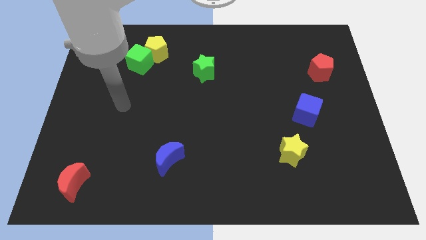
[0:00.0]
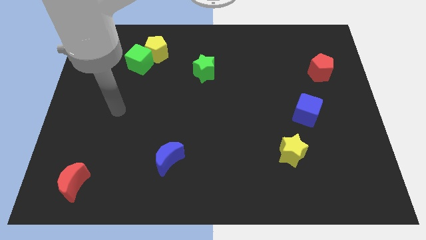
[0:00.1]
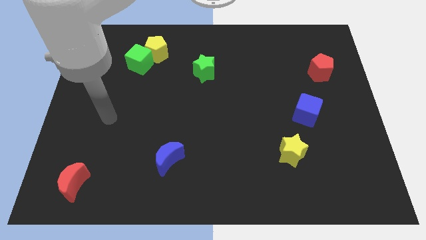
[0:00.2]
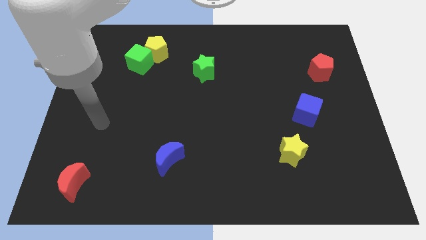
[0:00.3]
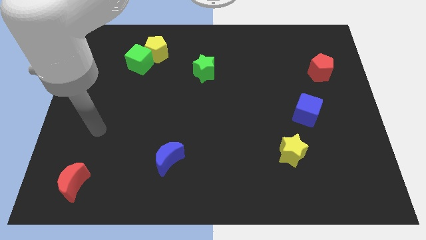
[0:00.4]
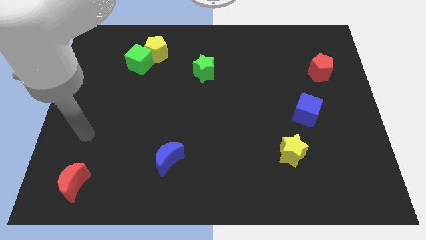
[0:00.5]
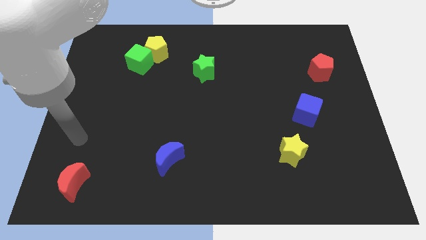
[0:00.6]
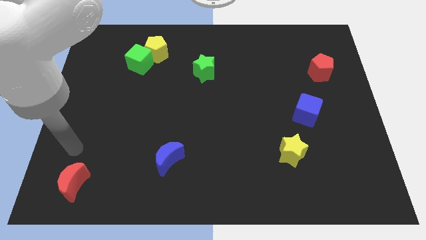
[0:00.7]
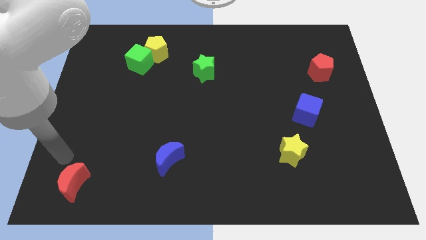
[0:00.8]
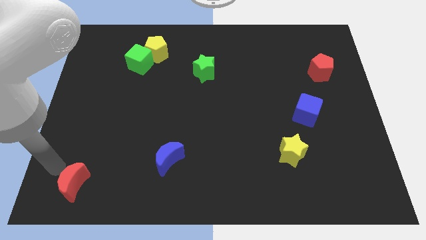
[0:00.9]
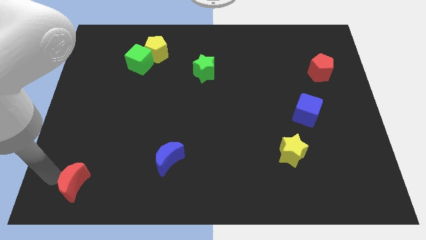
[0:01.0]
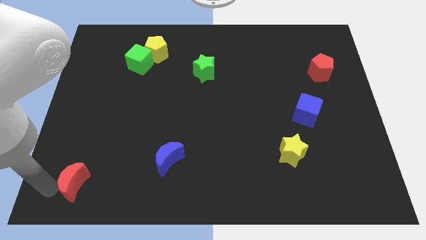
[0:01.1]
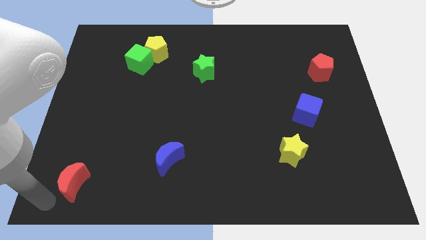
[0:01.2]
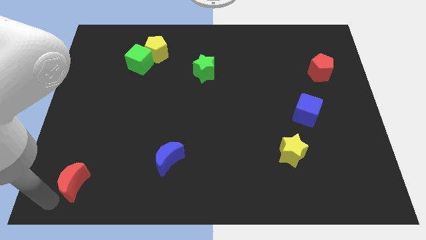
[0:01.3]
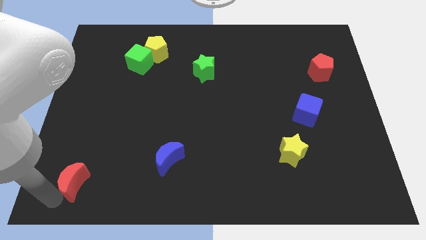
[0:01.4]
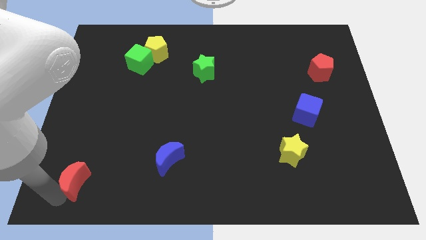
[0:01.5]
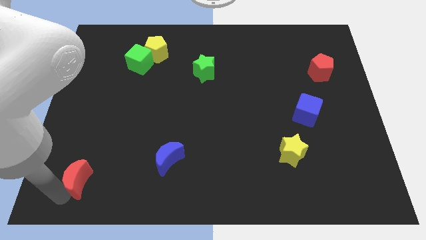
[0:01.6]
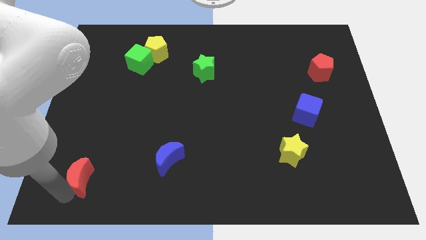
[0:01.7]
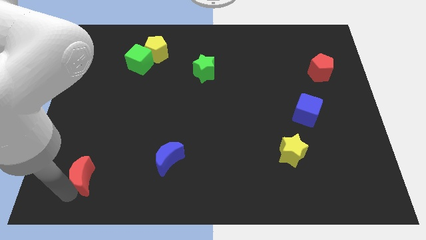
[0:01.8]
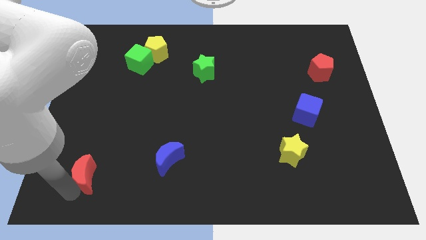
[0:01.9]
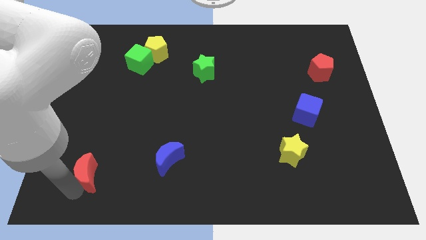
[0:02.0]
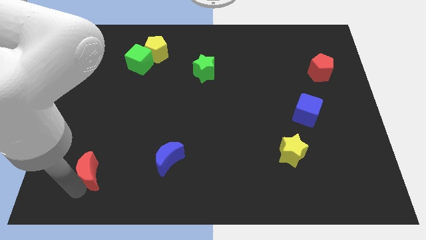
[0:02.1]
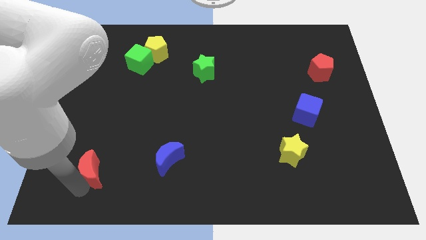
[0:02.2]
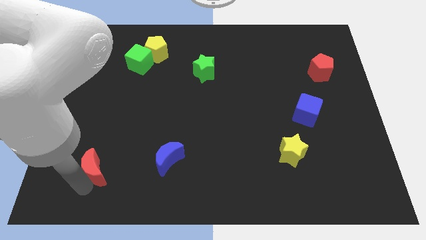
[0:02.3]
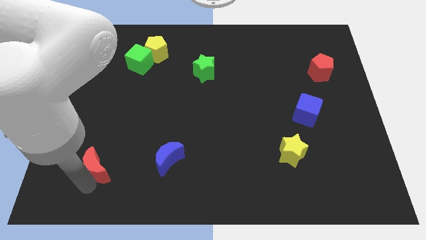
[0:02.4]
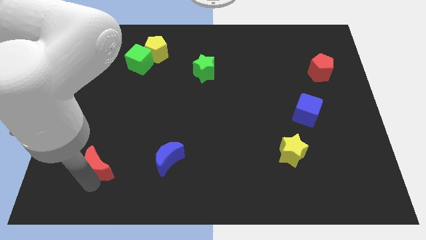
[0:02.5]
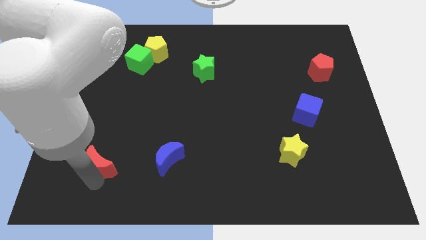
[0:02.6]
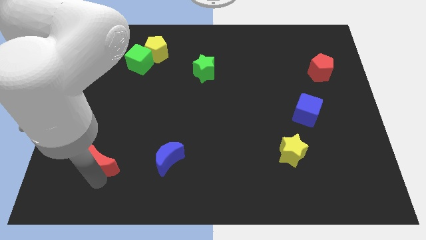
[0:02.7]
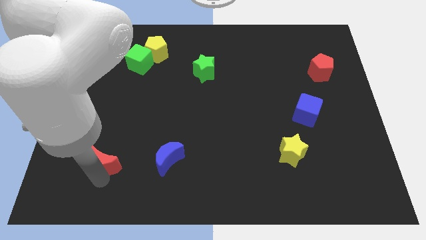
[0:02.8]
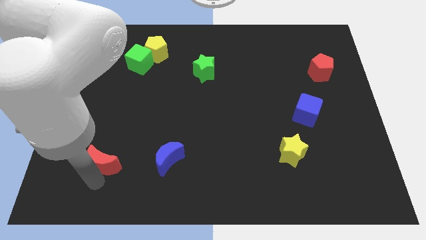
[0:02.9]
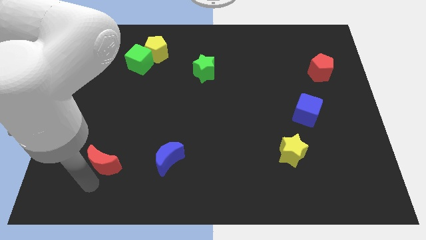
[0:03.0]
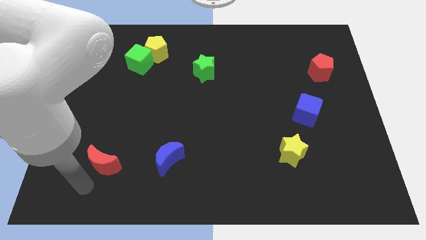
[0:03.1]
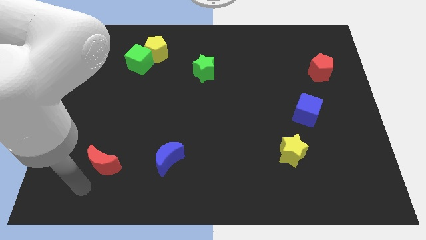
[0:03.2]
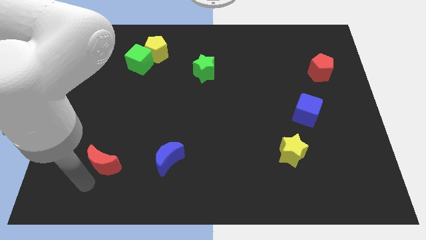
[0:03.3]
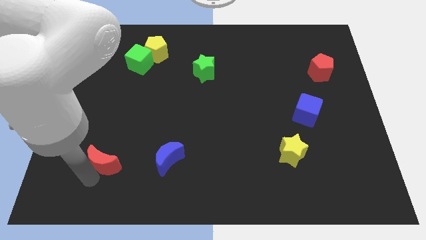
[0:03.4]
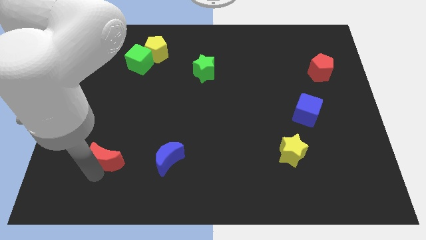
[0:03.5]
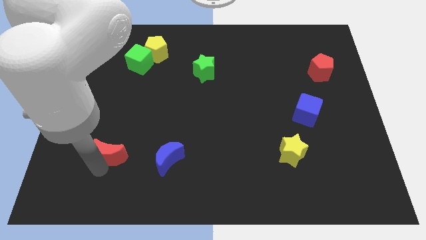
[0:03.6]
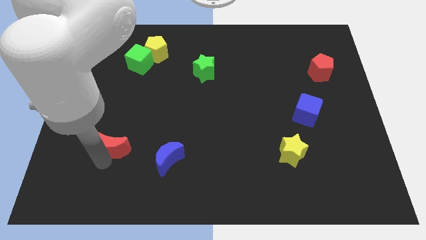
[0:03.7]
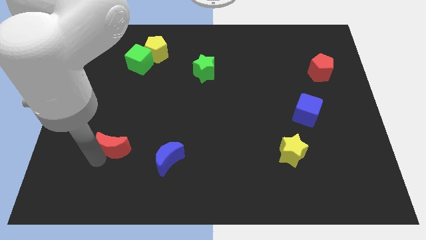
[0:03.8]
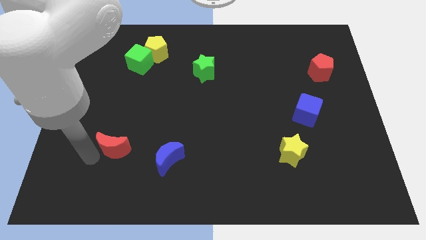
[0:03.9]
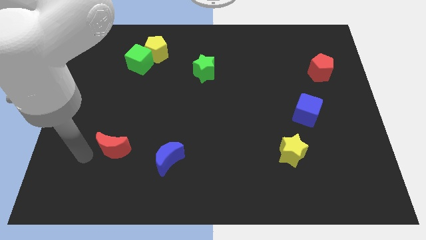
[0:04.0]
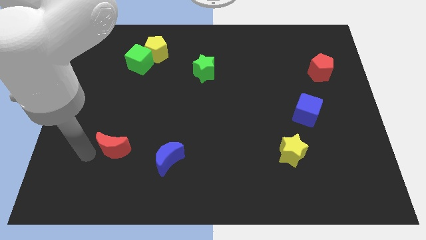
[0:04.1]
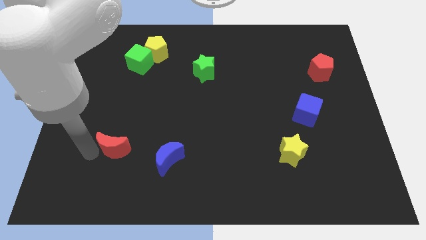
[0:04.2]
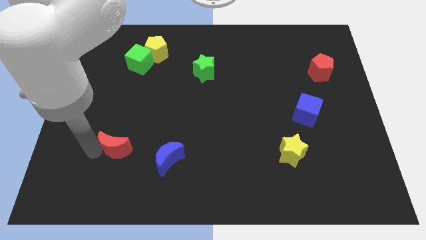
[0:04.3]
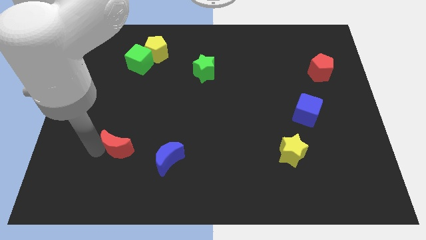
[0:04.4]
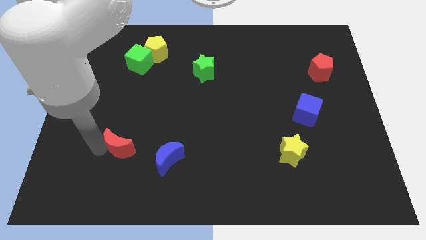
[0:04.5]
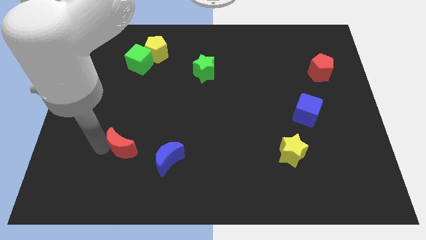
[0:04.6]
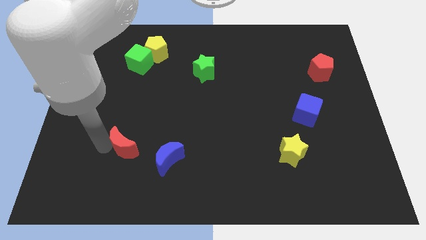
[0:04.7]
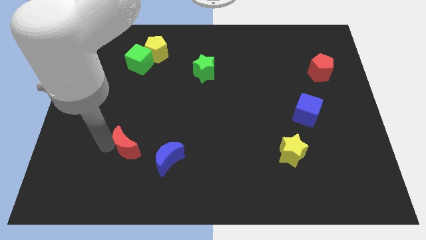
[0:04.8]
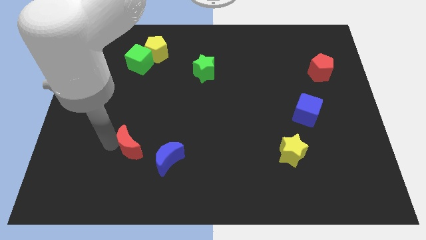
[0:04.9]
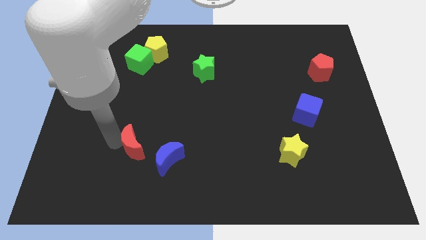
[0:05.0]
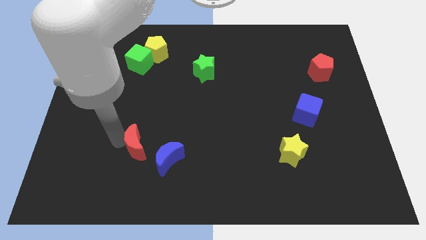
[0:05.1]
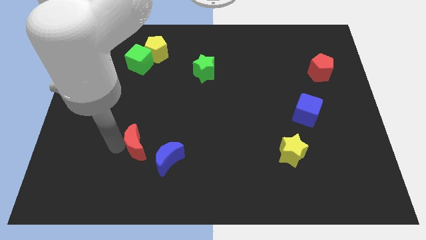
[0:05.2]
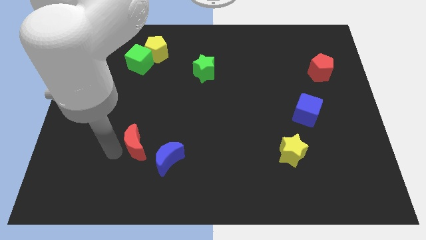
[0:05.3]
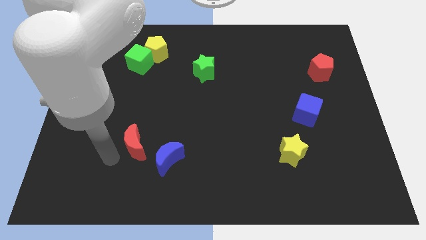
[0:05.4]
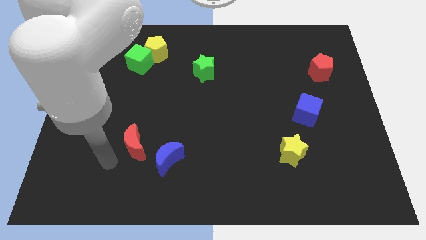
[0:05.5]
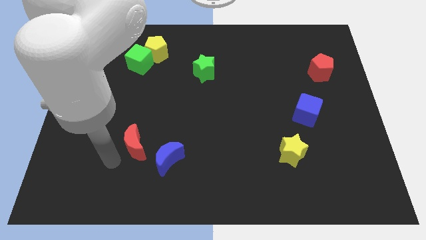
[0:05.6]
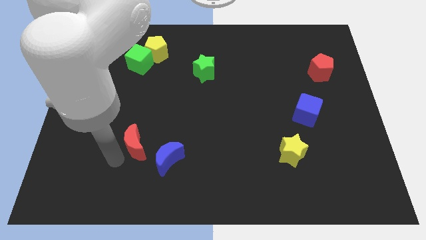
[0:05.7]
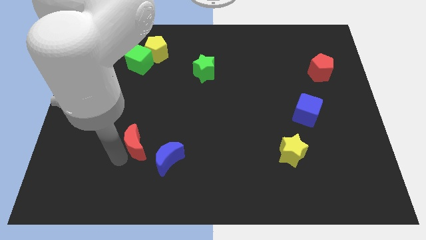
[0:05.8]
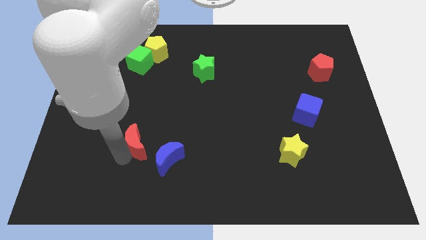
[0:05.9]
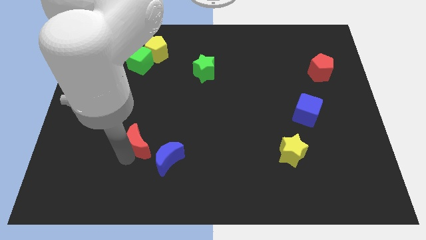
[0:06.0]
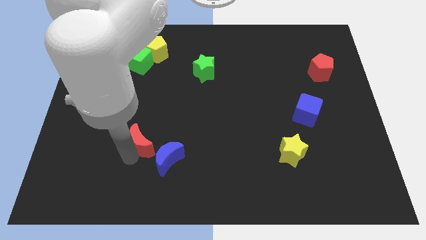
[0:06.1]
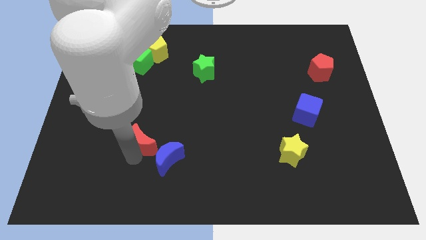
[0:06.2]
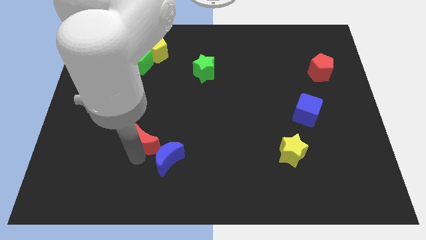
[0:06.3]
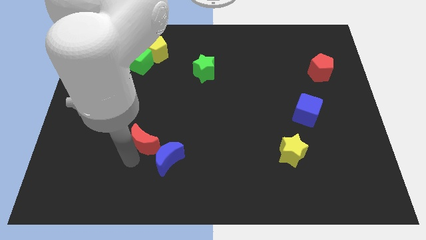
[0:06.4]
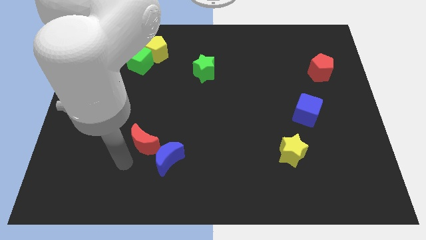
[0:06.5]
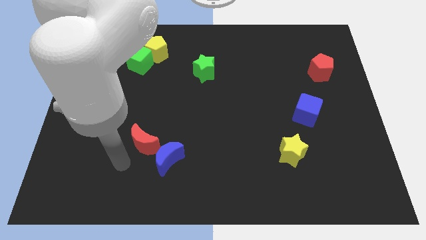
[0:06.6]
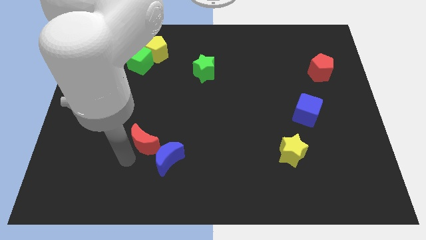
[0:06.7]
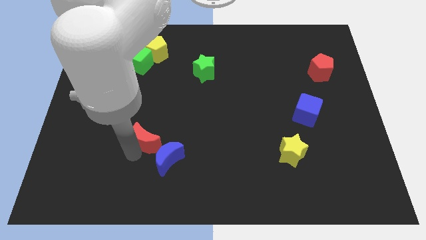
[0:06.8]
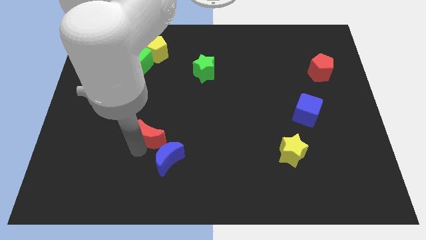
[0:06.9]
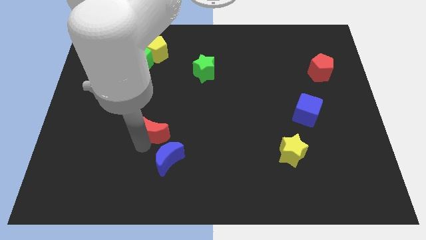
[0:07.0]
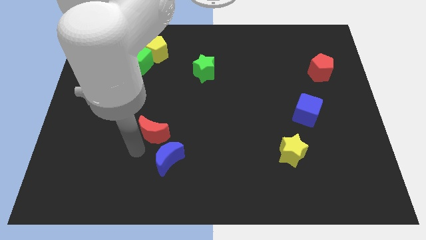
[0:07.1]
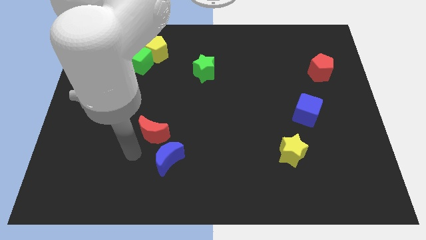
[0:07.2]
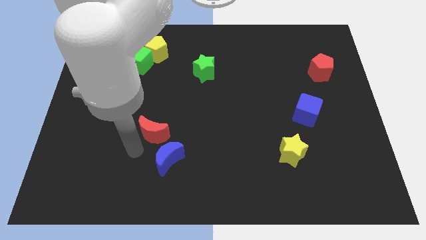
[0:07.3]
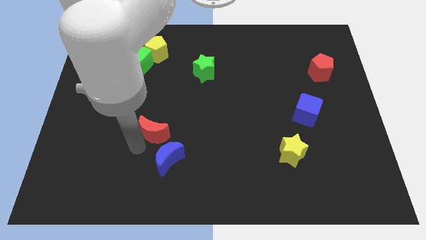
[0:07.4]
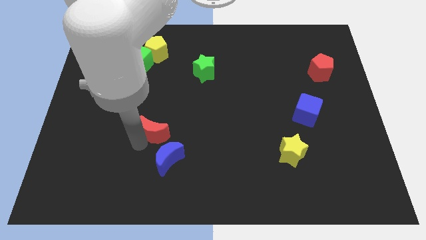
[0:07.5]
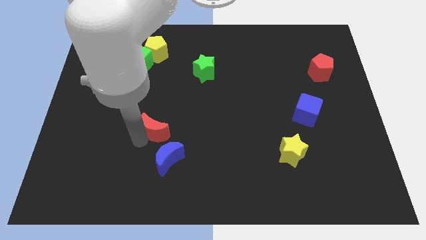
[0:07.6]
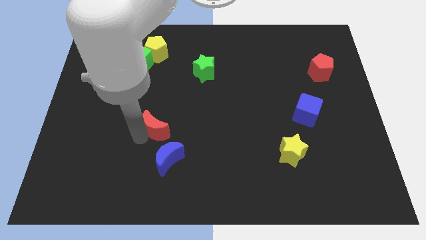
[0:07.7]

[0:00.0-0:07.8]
push the red moon diagonally upwards and right

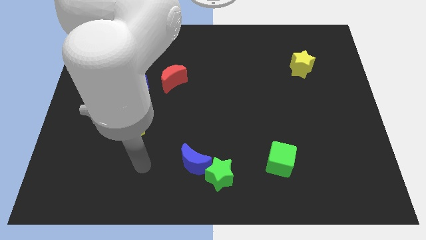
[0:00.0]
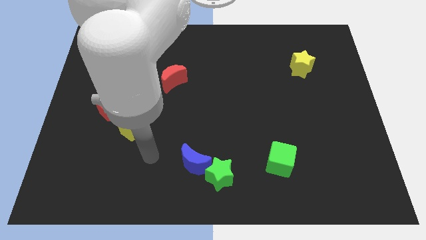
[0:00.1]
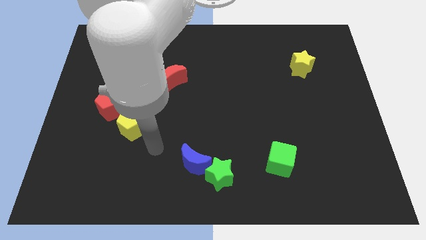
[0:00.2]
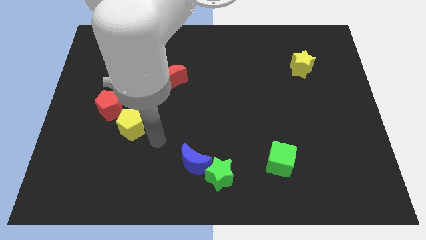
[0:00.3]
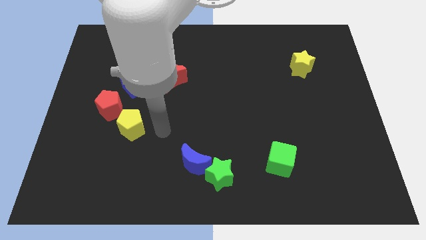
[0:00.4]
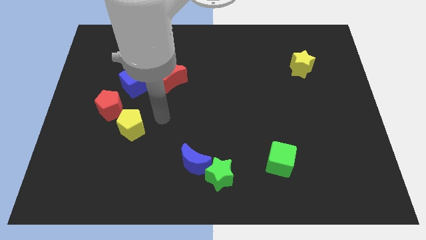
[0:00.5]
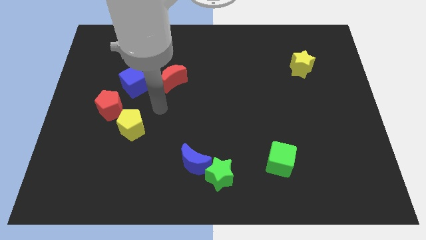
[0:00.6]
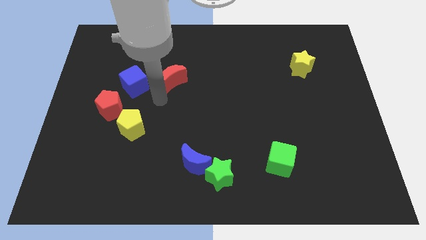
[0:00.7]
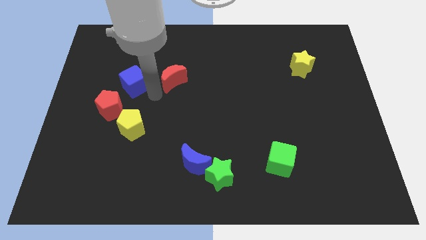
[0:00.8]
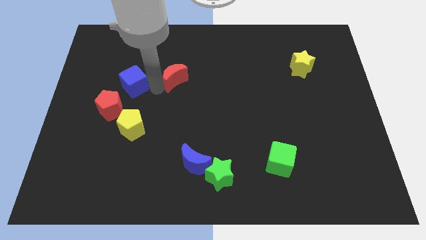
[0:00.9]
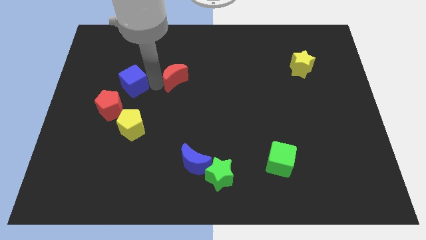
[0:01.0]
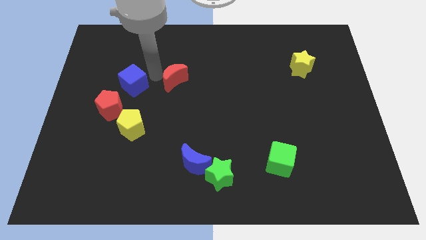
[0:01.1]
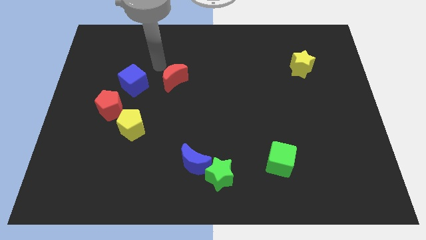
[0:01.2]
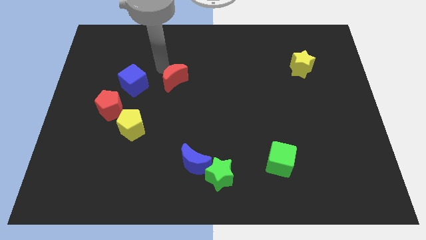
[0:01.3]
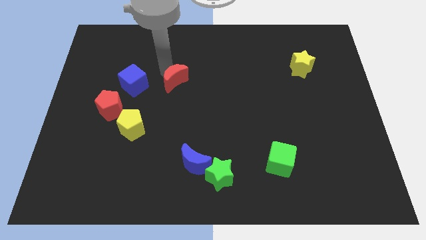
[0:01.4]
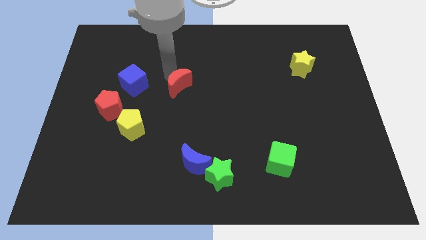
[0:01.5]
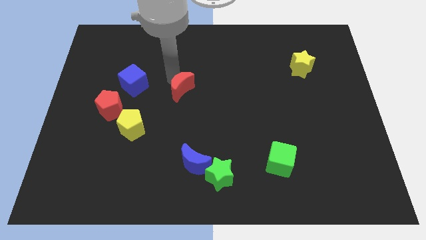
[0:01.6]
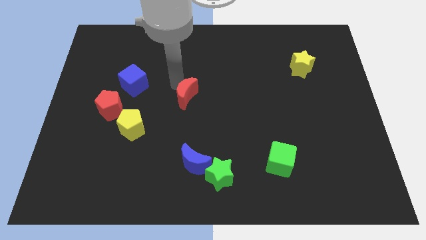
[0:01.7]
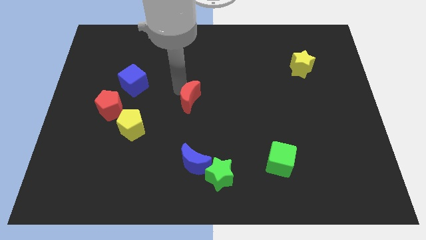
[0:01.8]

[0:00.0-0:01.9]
slide the red moon a little down and then to the right
